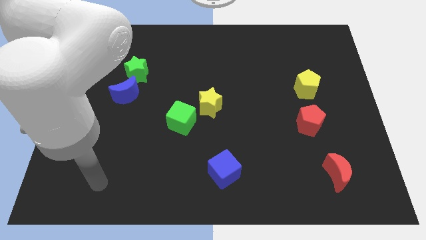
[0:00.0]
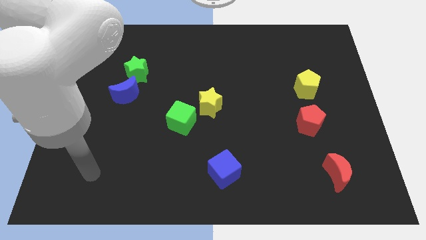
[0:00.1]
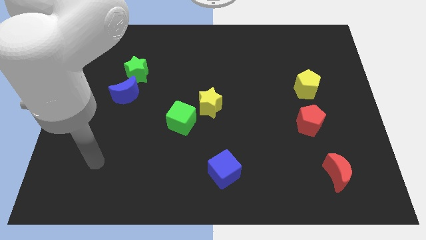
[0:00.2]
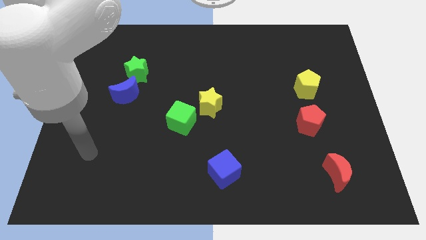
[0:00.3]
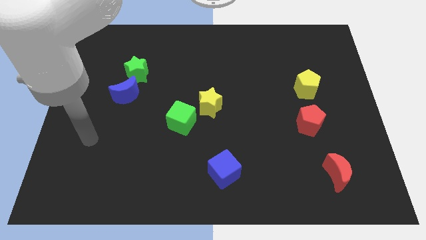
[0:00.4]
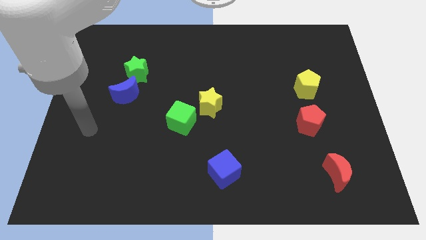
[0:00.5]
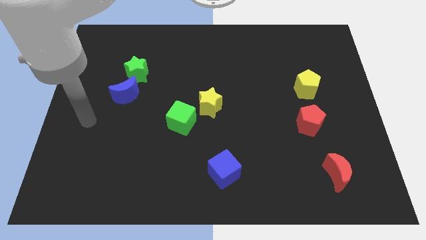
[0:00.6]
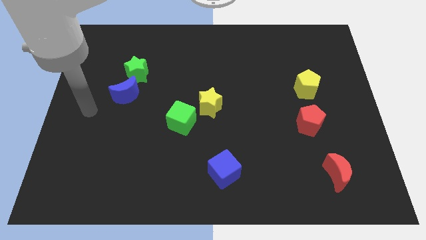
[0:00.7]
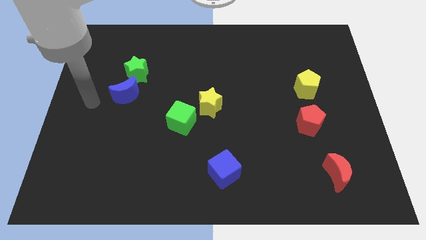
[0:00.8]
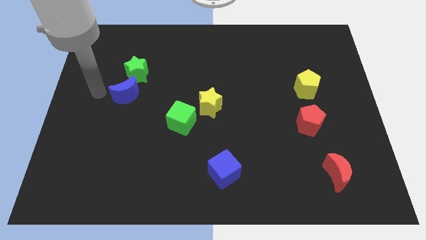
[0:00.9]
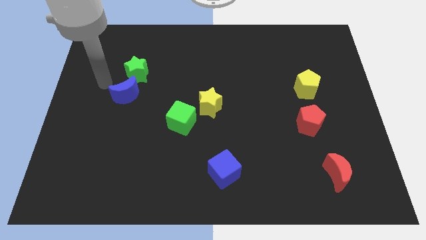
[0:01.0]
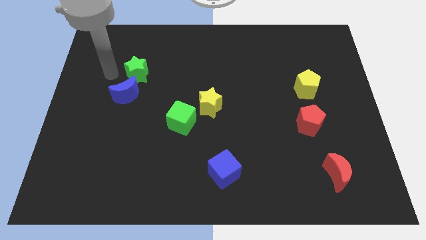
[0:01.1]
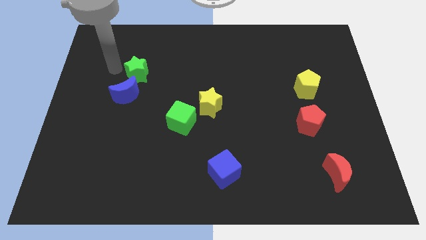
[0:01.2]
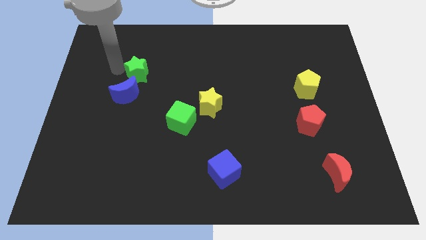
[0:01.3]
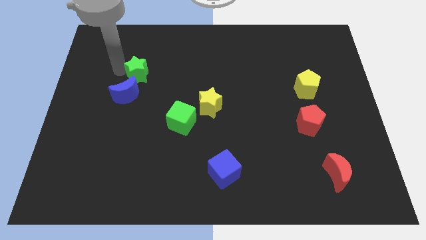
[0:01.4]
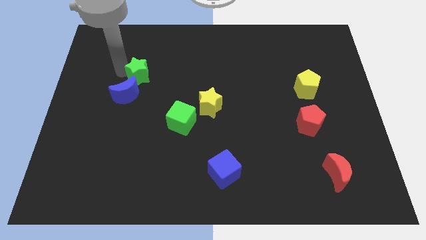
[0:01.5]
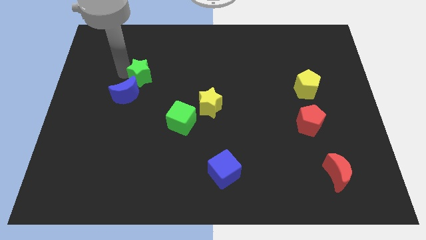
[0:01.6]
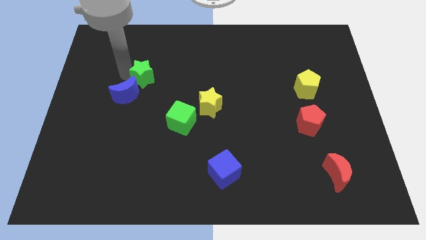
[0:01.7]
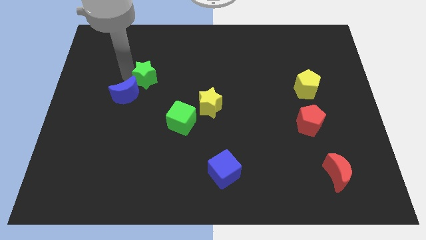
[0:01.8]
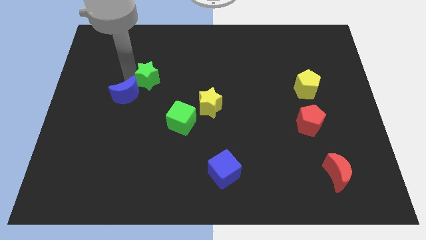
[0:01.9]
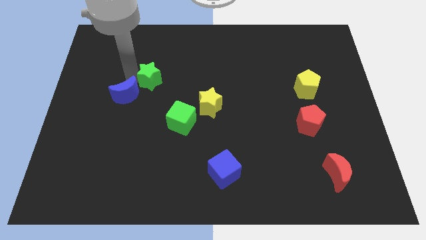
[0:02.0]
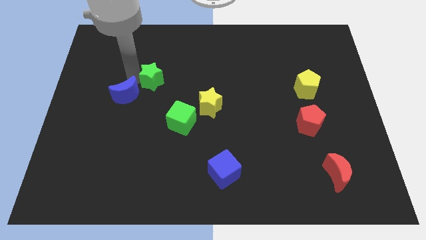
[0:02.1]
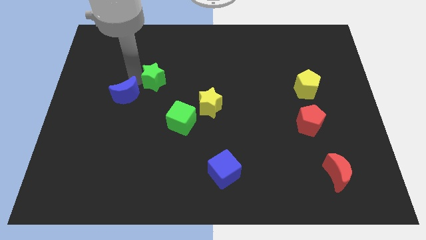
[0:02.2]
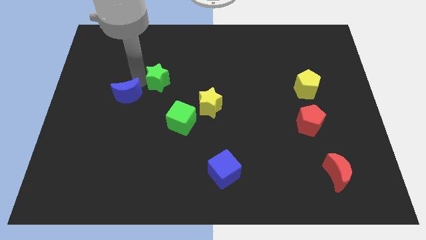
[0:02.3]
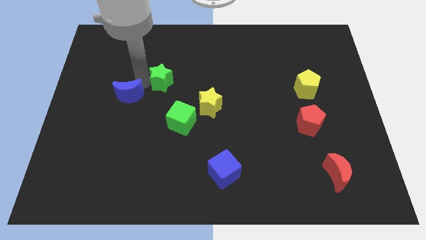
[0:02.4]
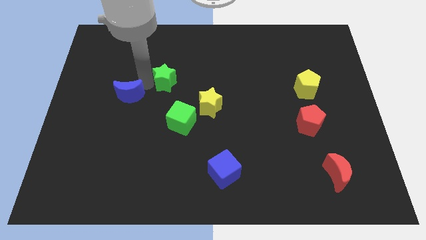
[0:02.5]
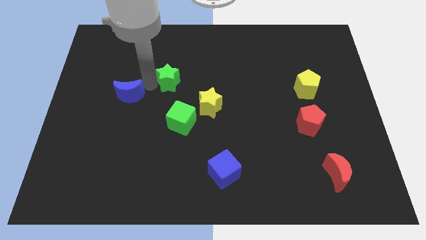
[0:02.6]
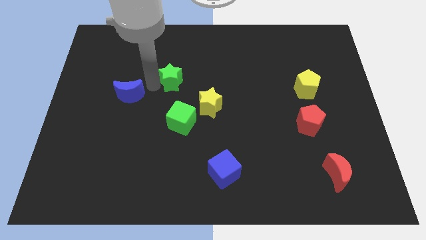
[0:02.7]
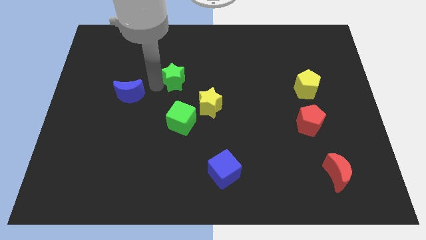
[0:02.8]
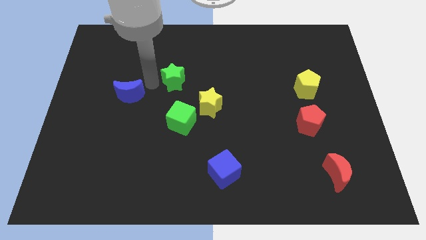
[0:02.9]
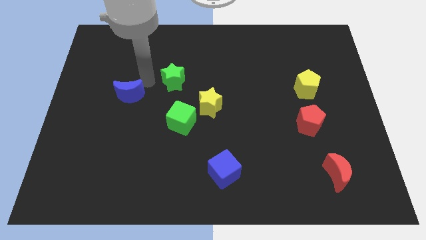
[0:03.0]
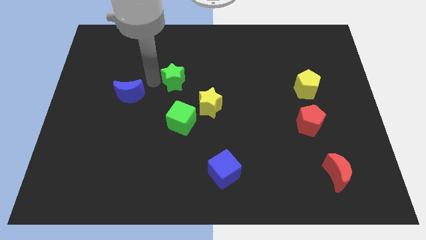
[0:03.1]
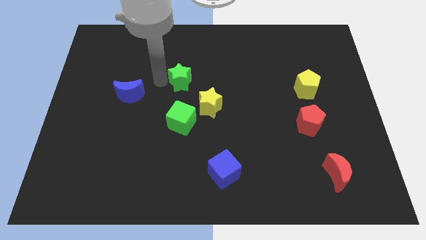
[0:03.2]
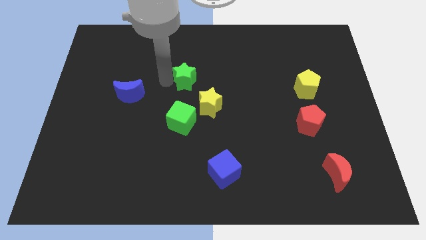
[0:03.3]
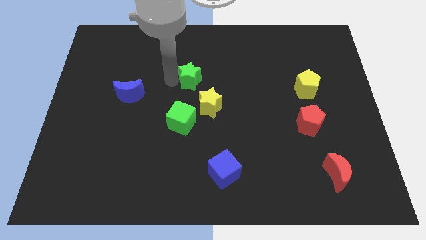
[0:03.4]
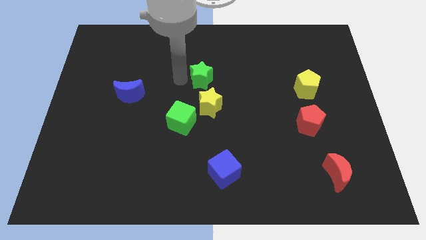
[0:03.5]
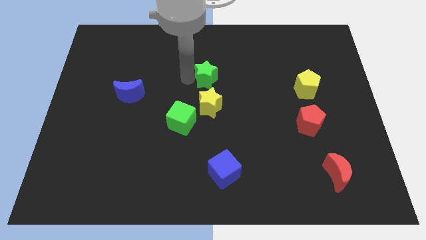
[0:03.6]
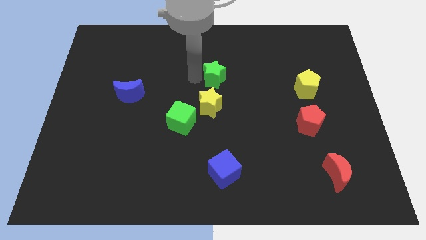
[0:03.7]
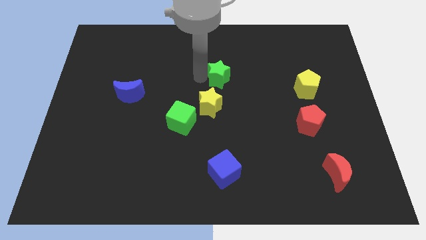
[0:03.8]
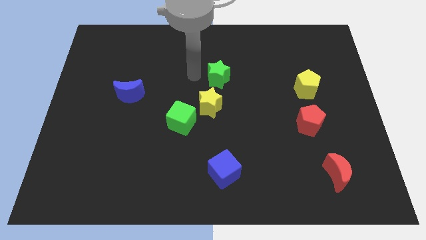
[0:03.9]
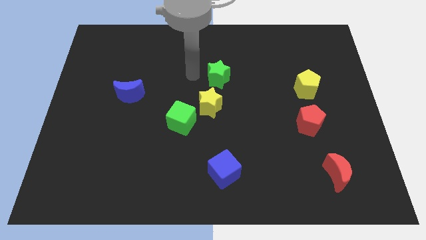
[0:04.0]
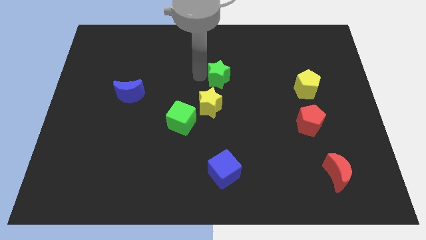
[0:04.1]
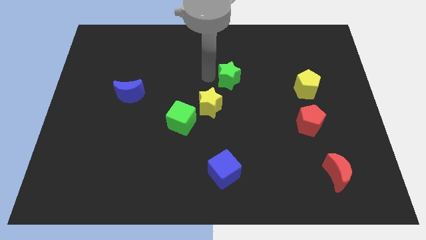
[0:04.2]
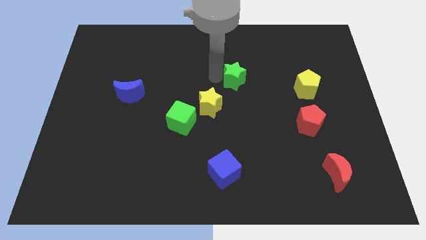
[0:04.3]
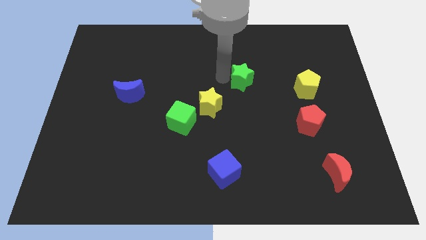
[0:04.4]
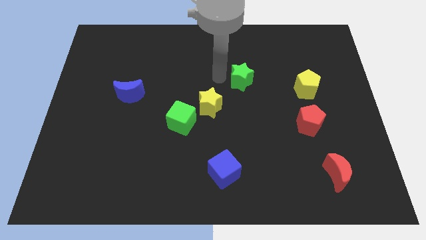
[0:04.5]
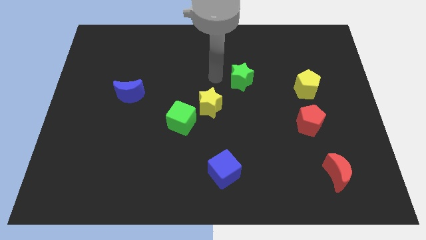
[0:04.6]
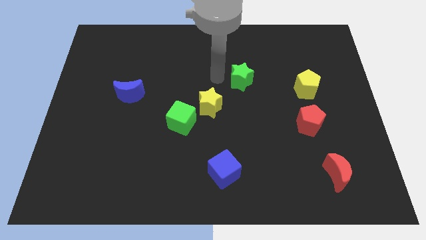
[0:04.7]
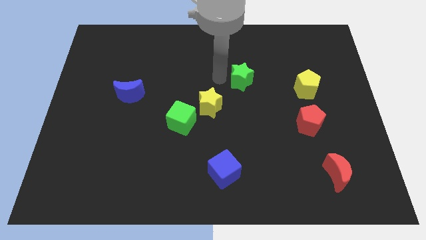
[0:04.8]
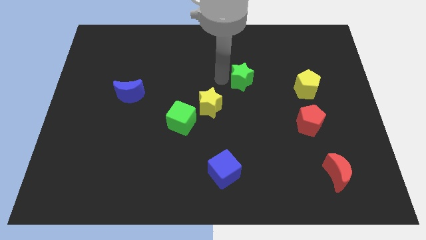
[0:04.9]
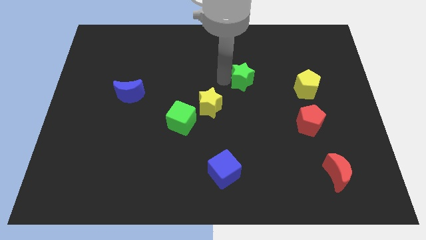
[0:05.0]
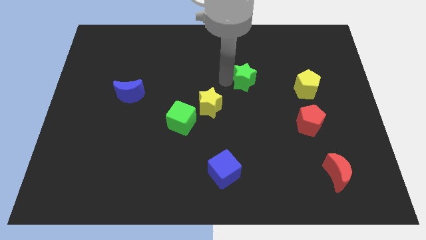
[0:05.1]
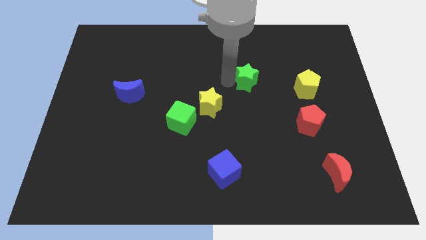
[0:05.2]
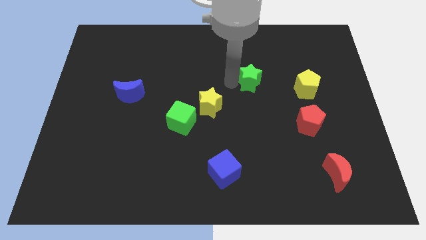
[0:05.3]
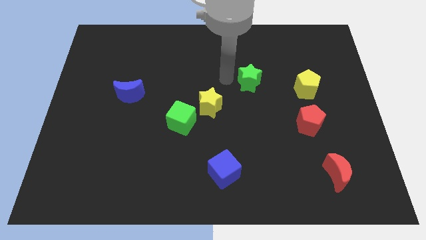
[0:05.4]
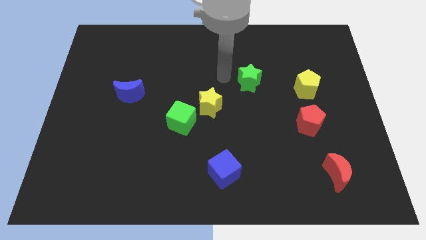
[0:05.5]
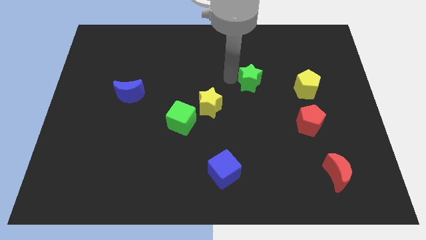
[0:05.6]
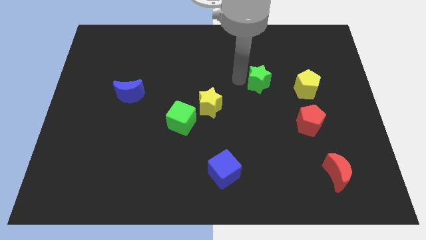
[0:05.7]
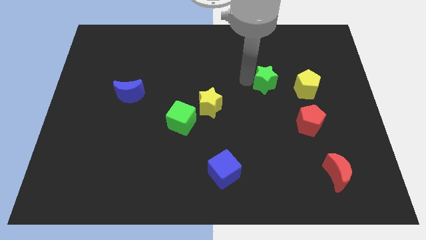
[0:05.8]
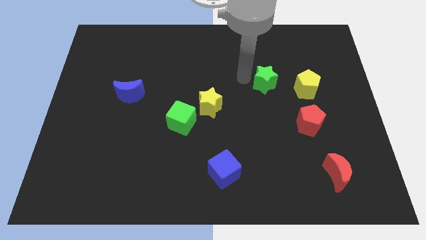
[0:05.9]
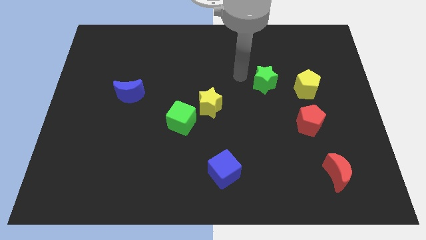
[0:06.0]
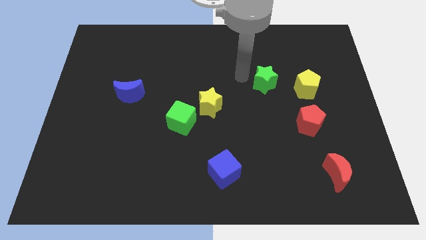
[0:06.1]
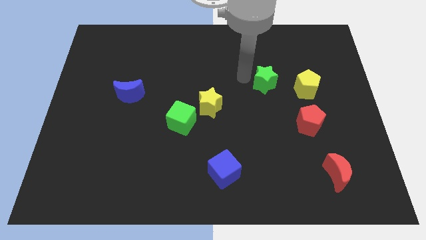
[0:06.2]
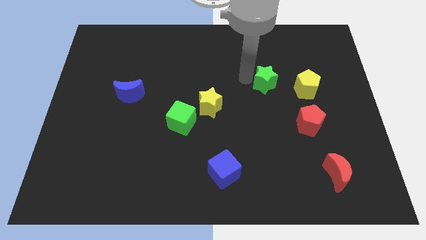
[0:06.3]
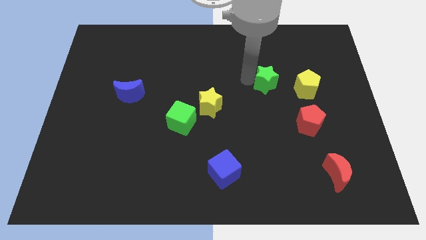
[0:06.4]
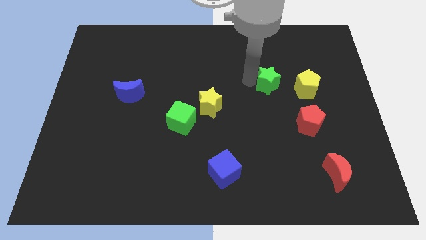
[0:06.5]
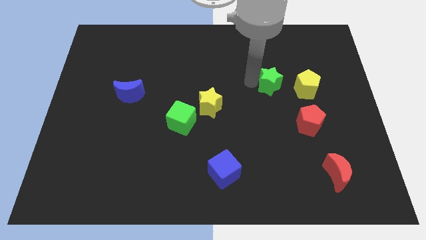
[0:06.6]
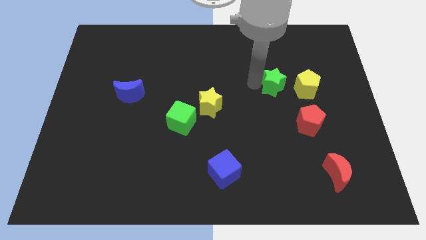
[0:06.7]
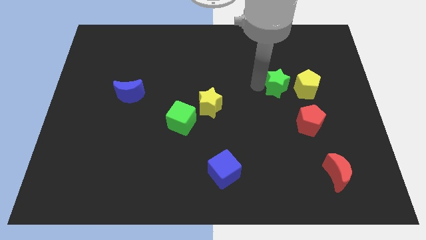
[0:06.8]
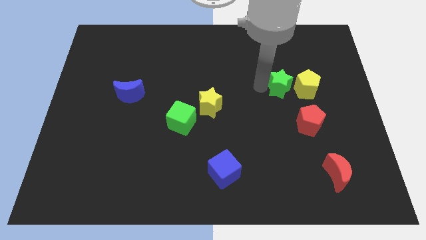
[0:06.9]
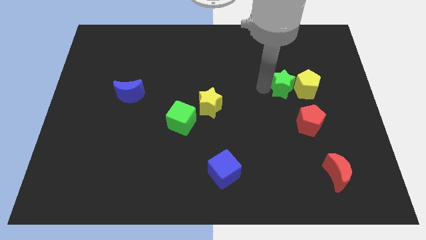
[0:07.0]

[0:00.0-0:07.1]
put the green star close to the yellow pentagon

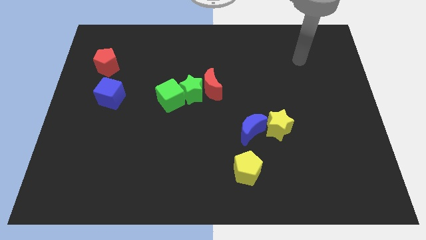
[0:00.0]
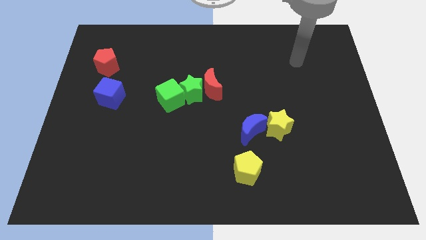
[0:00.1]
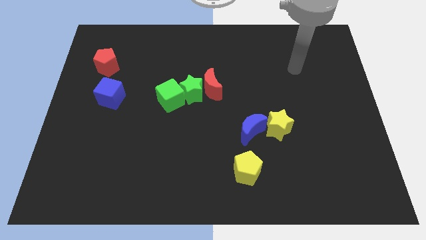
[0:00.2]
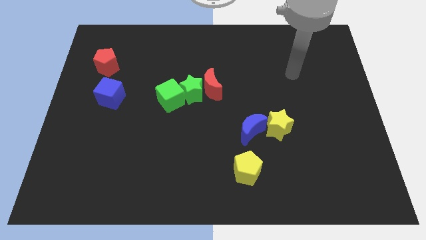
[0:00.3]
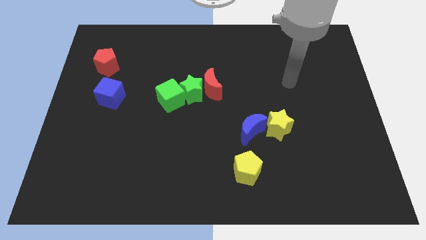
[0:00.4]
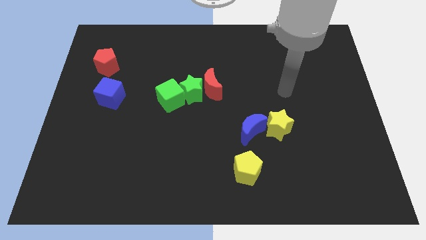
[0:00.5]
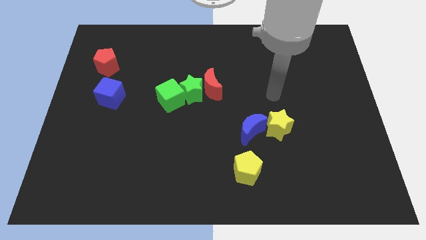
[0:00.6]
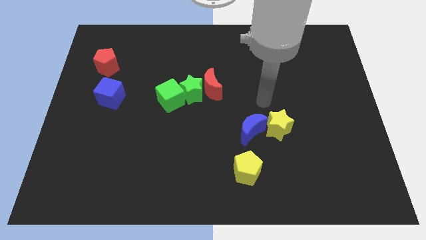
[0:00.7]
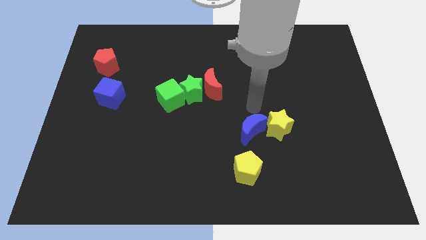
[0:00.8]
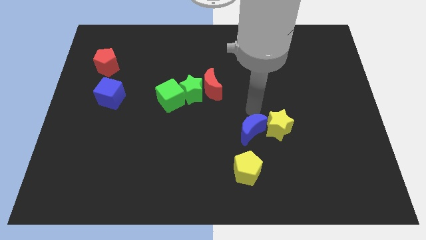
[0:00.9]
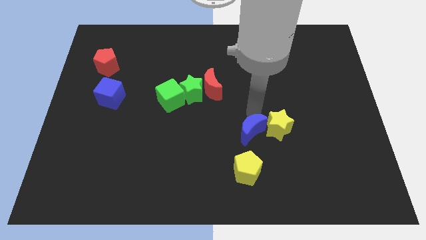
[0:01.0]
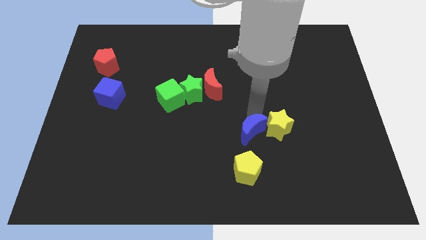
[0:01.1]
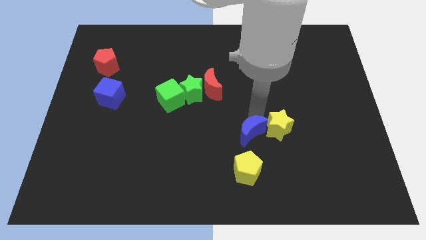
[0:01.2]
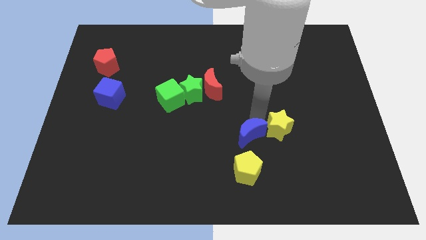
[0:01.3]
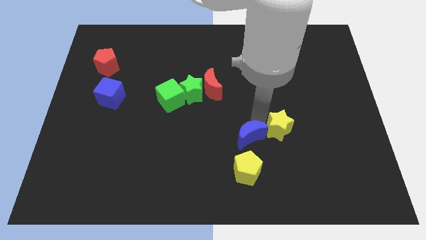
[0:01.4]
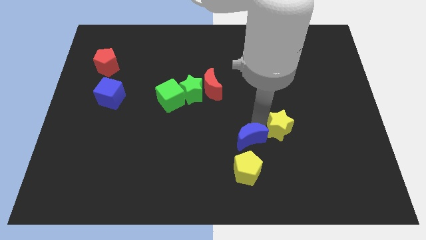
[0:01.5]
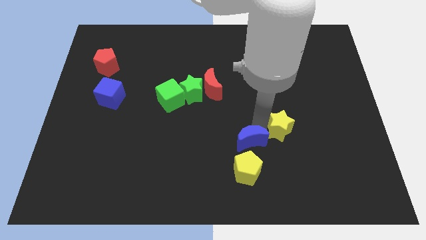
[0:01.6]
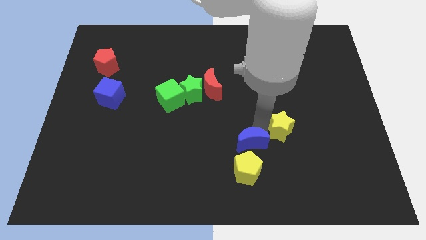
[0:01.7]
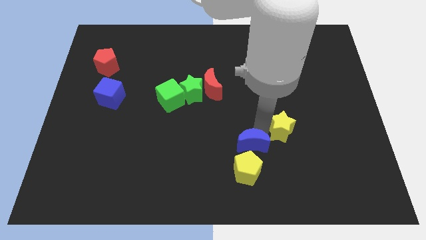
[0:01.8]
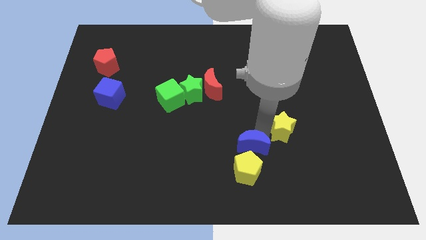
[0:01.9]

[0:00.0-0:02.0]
push the blue moon to the yellow pentagon
